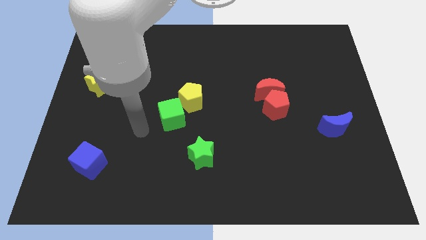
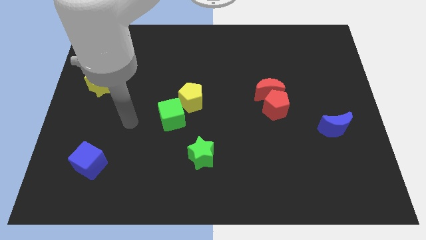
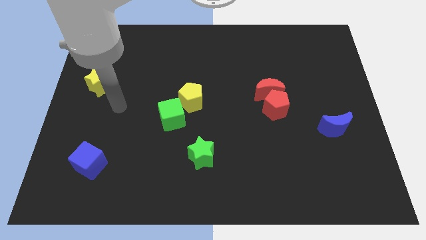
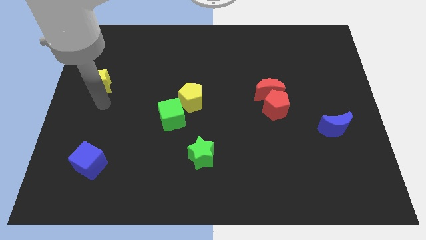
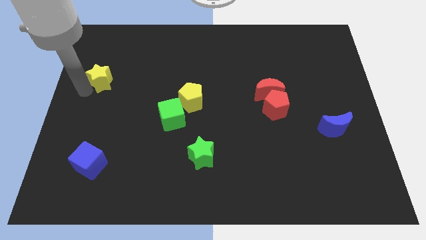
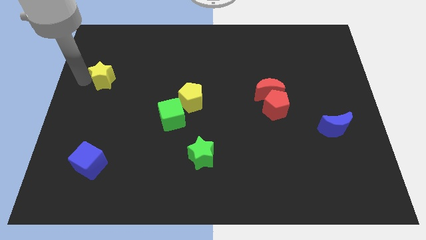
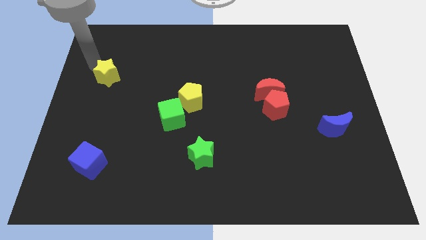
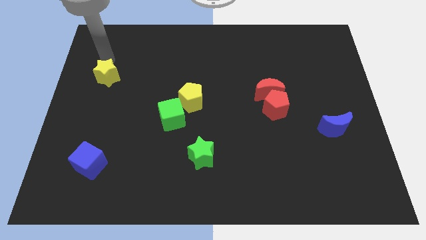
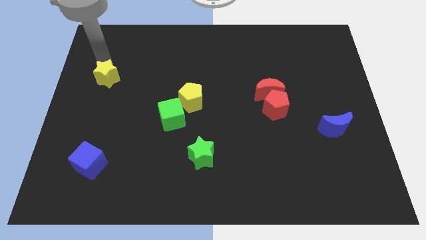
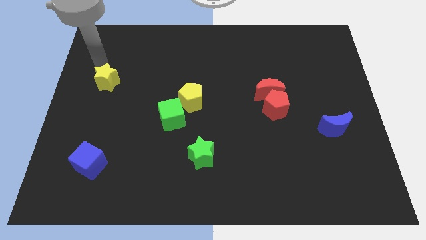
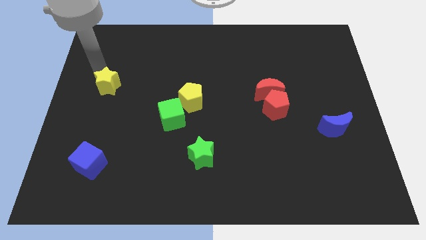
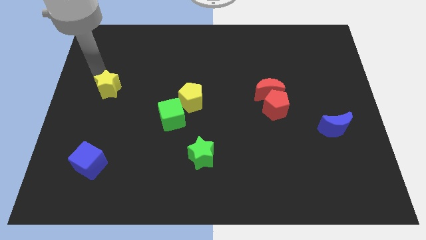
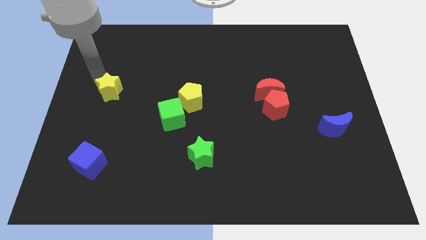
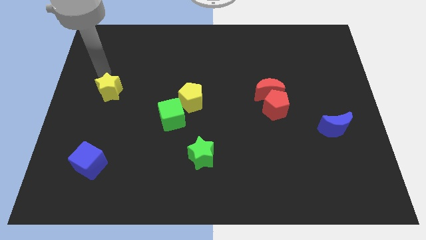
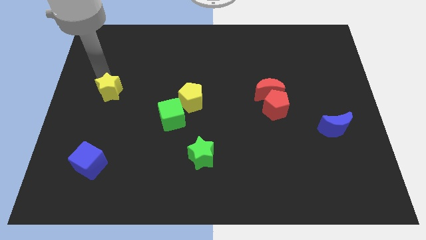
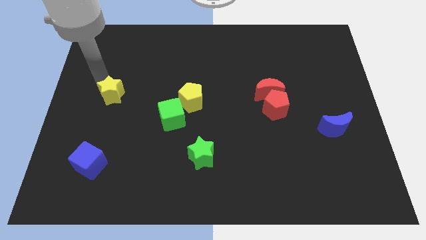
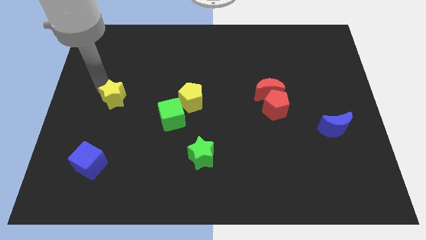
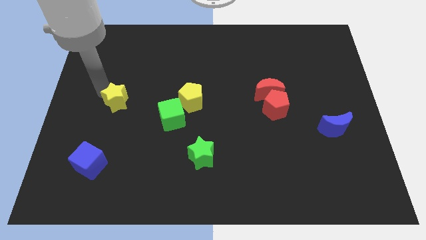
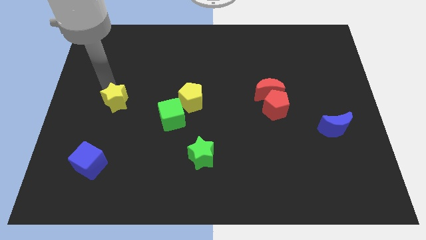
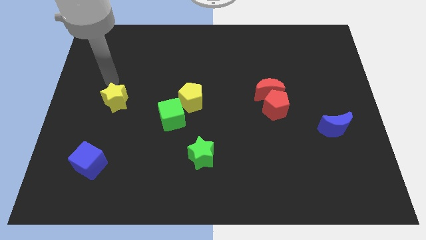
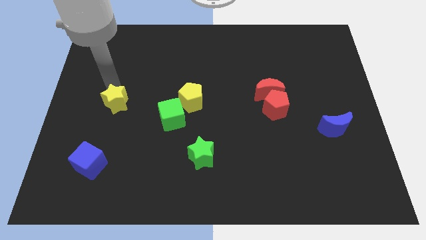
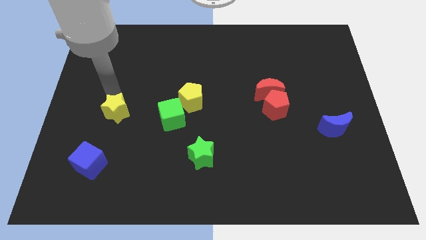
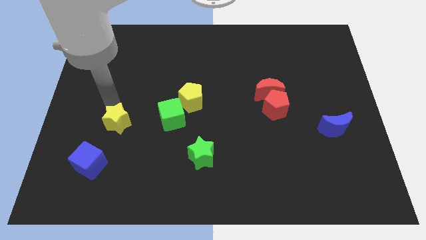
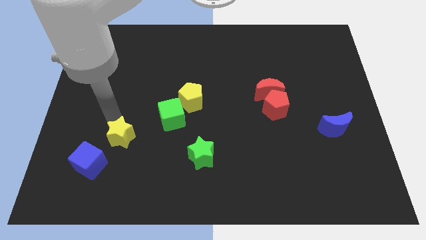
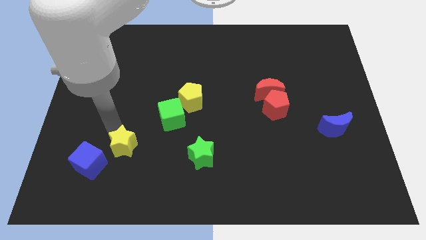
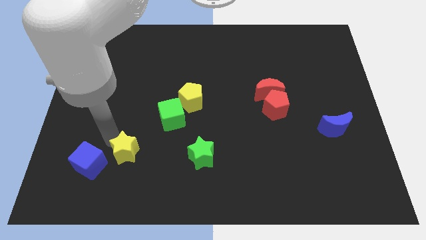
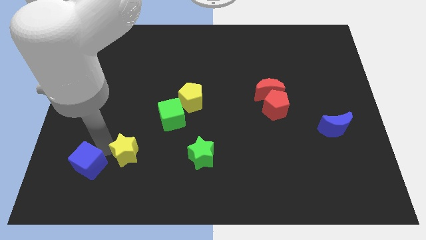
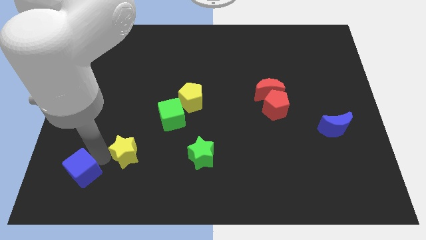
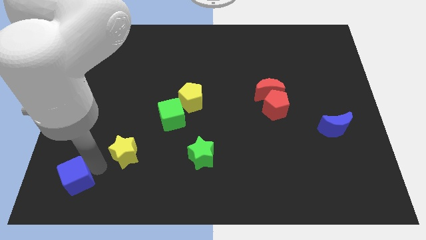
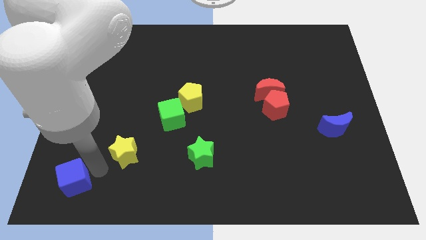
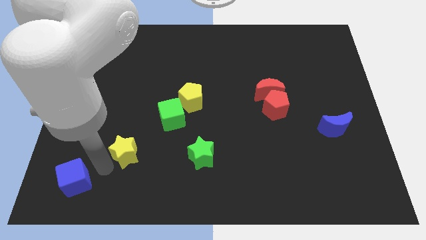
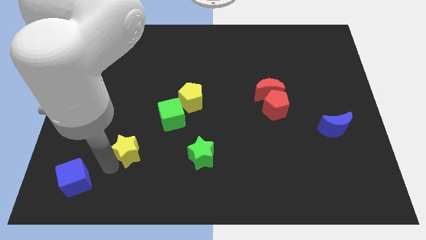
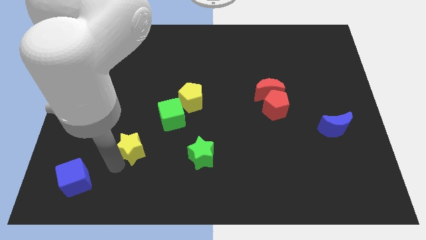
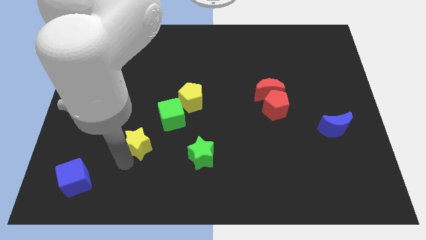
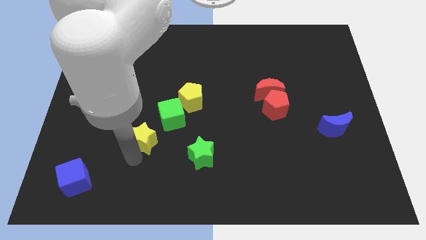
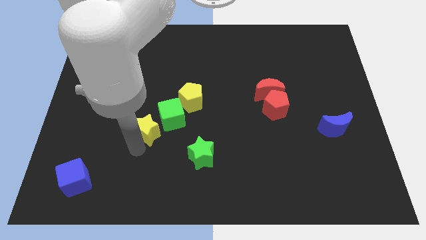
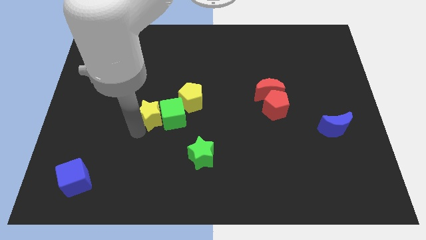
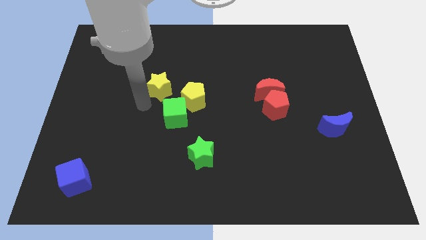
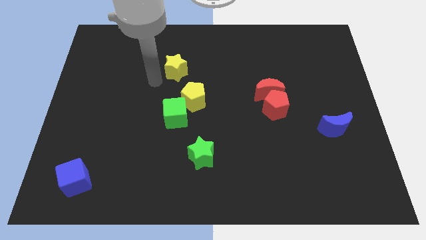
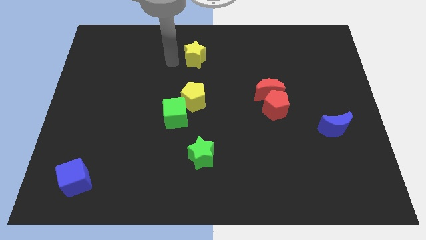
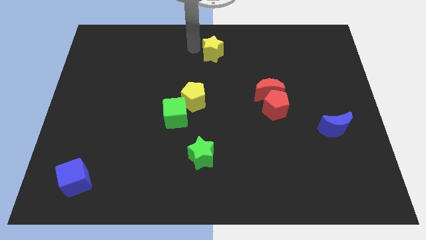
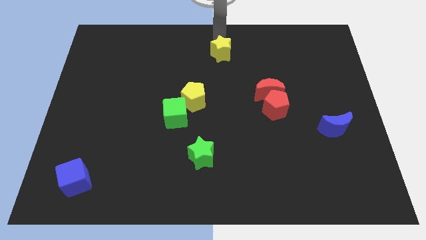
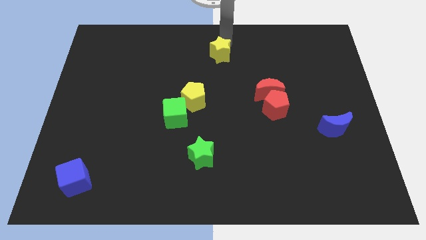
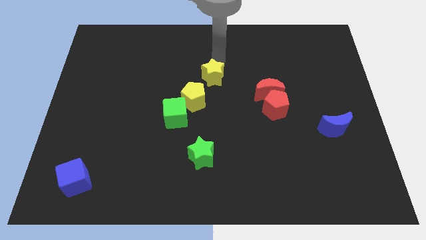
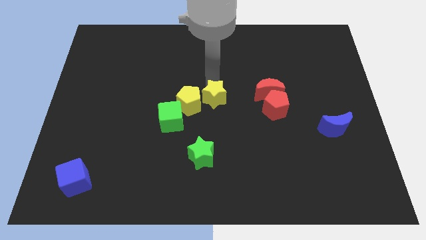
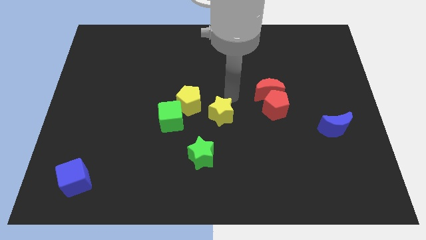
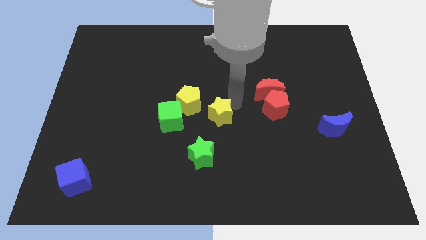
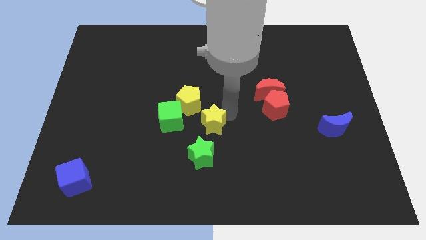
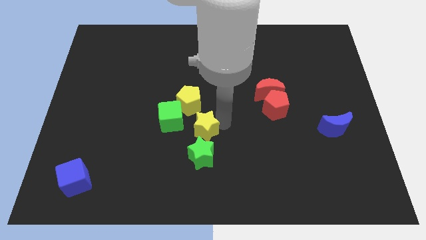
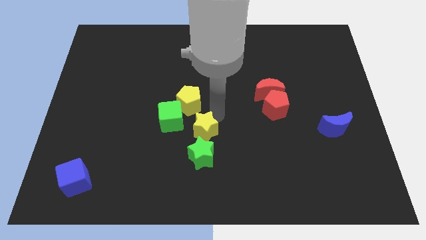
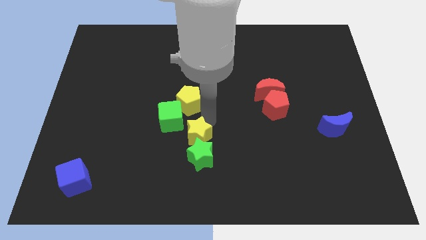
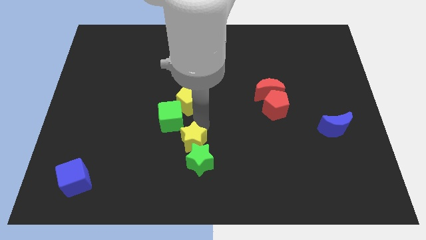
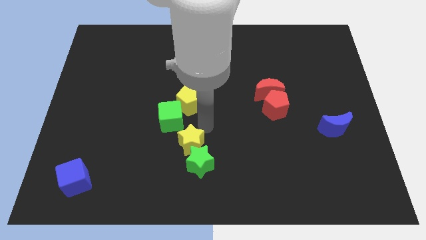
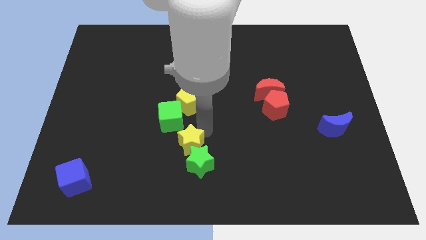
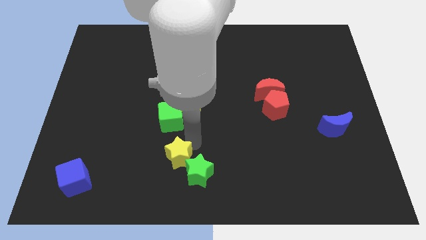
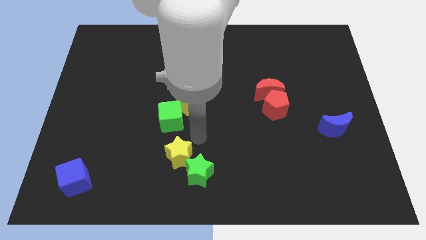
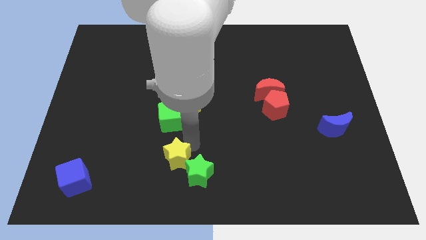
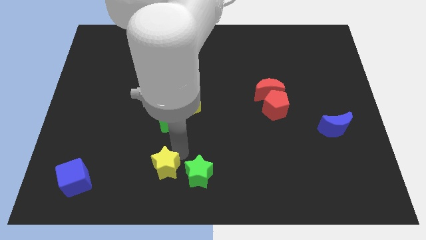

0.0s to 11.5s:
put the yellow star to the bottom side

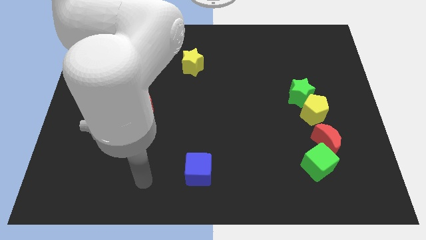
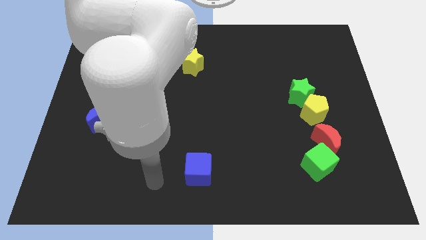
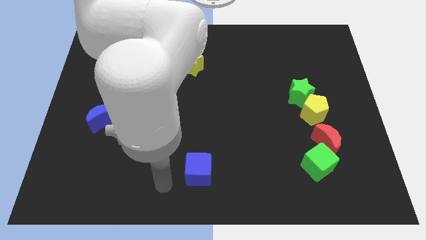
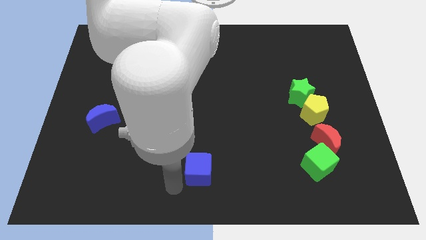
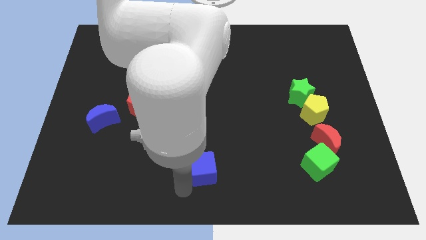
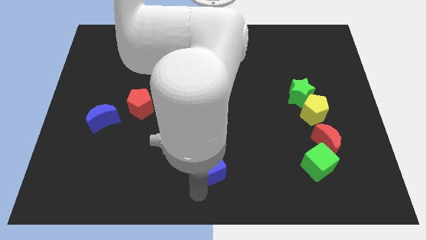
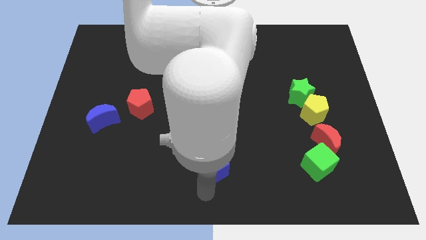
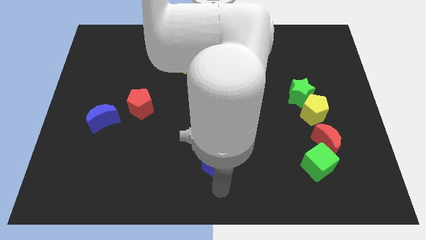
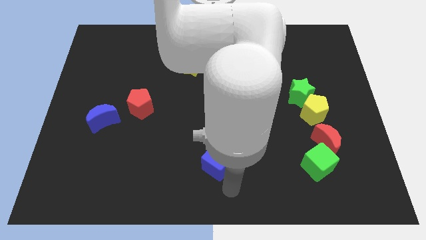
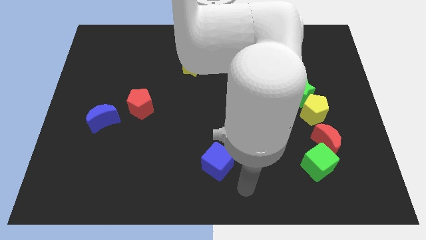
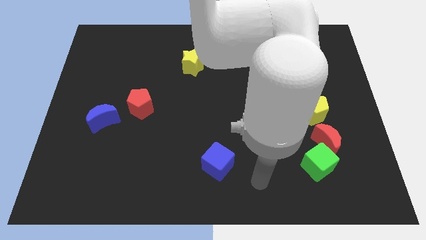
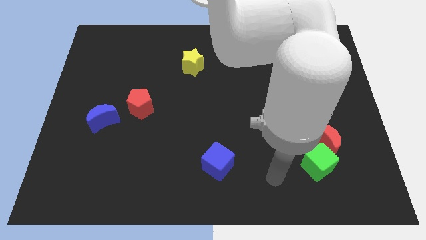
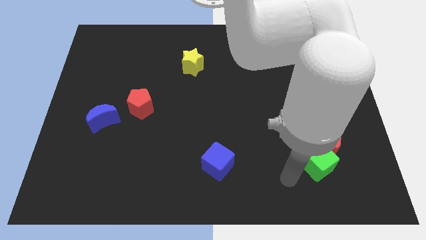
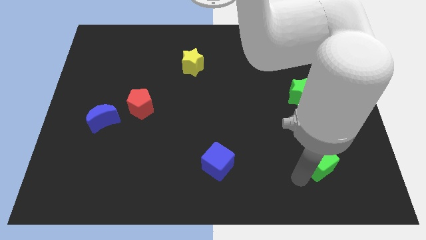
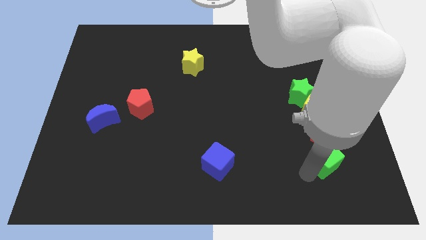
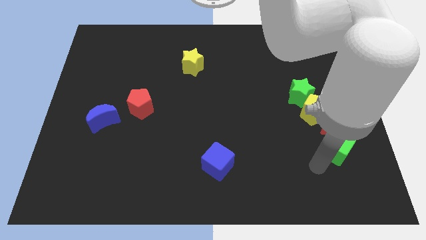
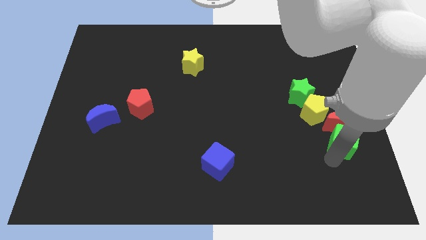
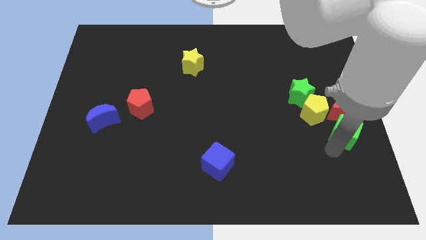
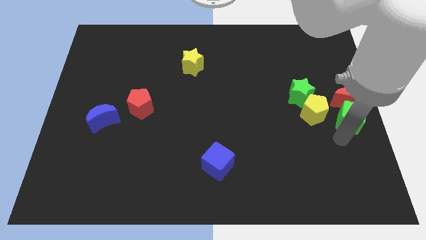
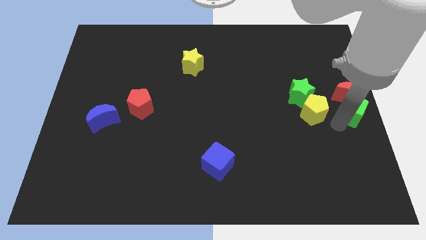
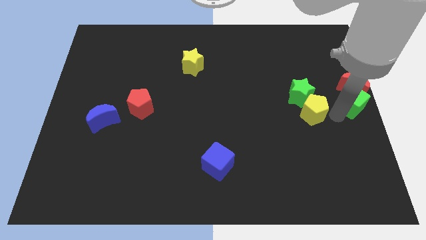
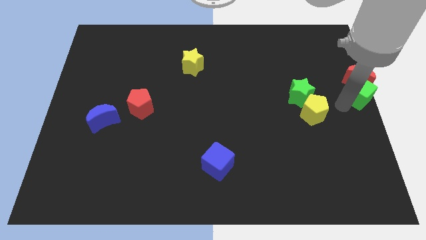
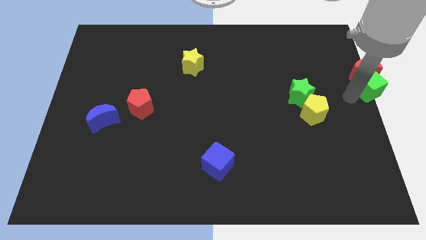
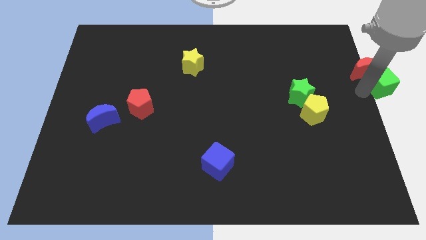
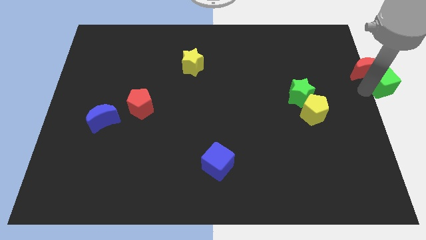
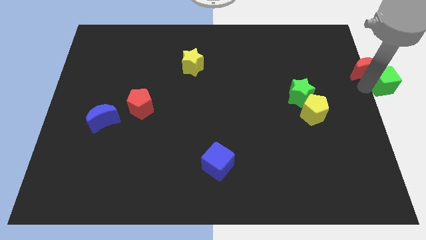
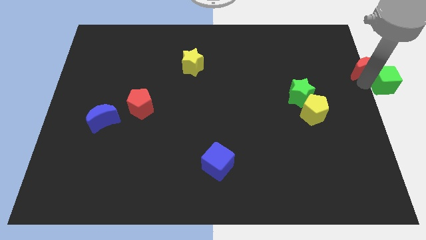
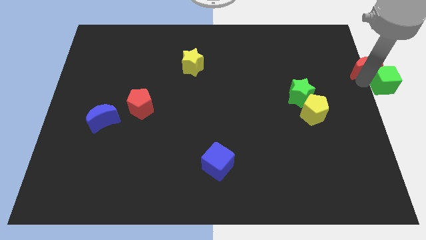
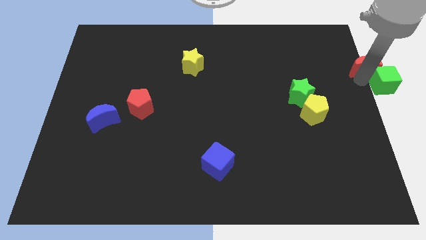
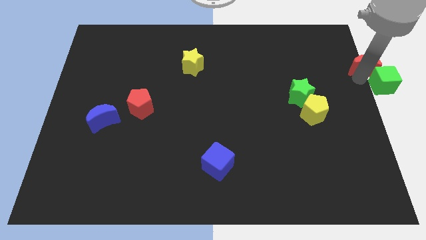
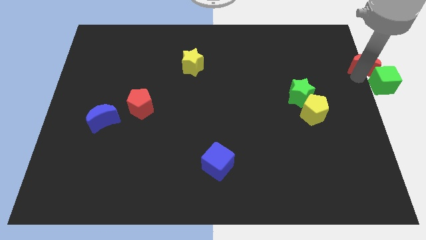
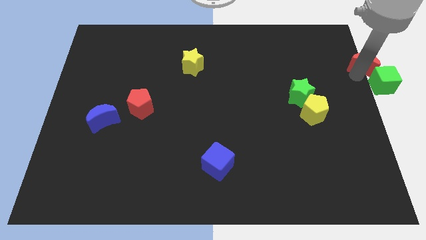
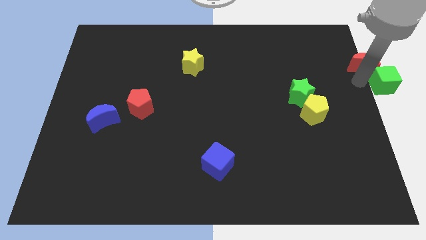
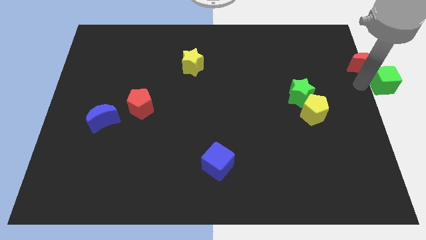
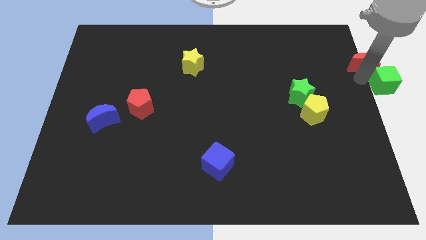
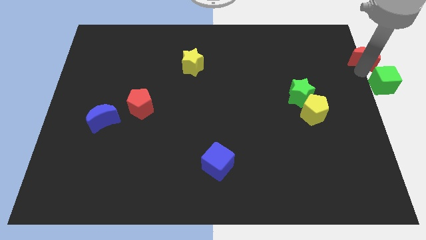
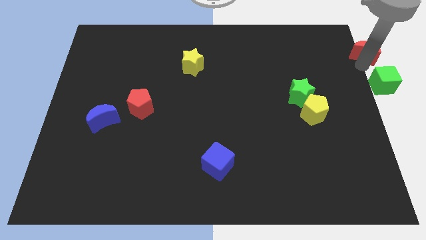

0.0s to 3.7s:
push the red moon to the top right of the board
